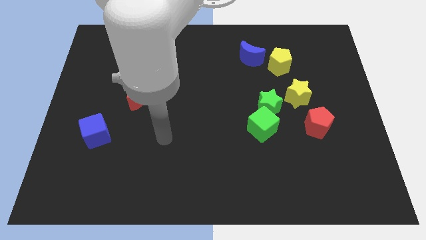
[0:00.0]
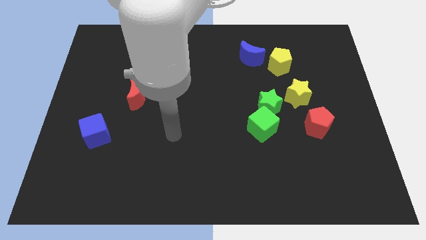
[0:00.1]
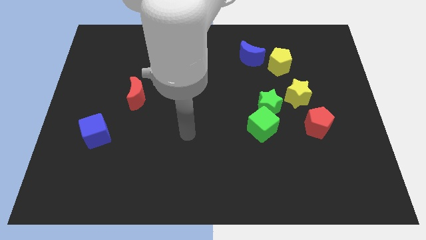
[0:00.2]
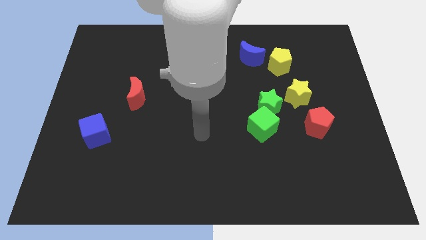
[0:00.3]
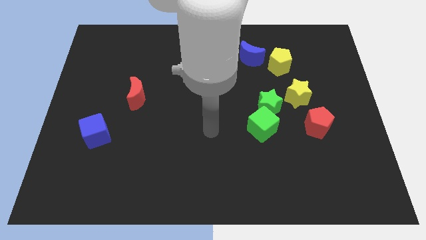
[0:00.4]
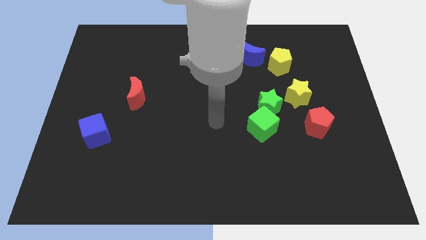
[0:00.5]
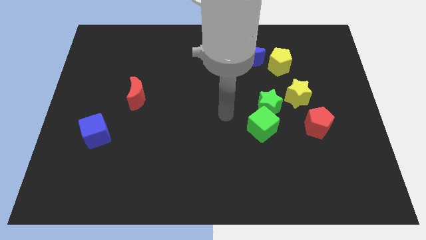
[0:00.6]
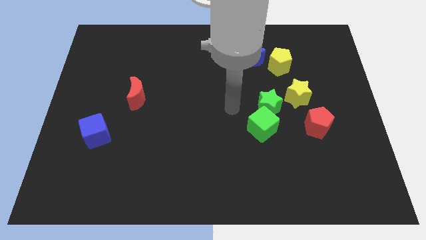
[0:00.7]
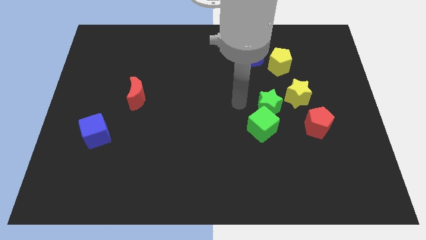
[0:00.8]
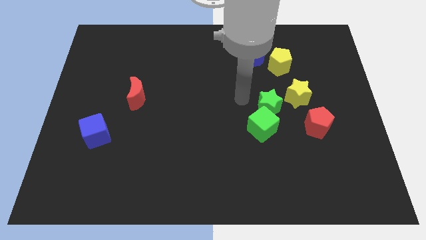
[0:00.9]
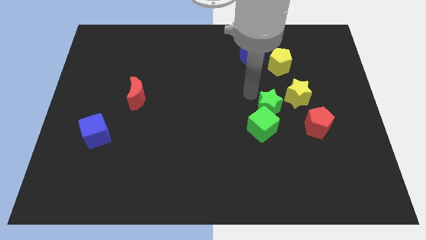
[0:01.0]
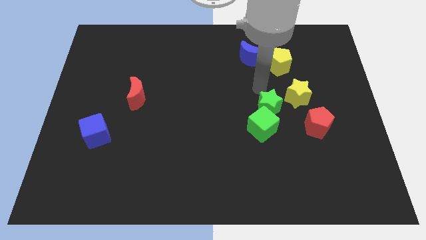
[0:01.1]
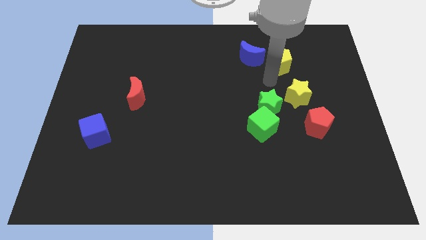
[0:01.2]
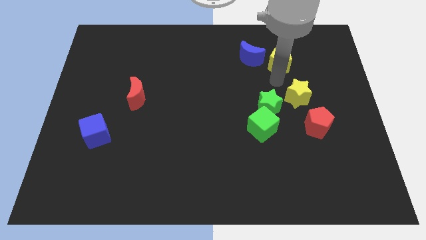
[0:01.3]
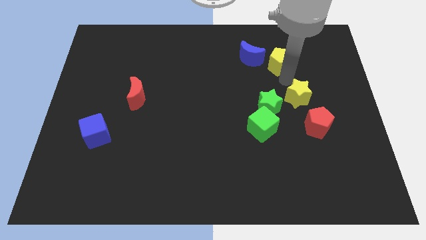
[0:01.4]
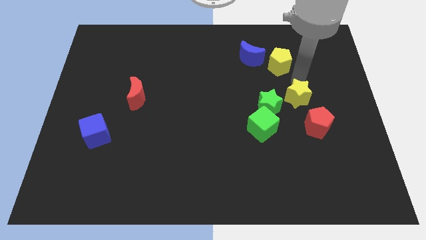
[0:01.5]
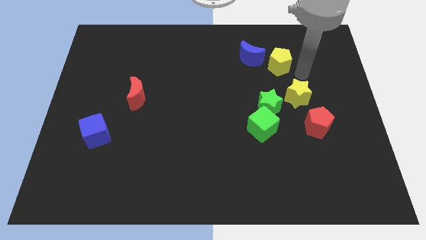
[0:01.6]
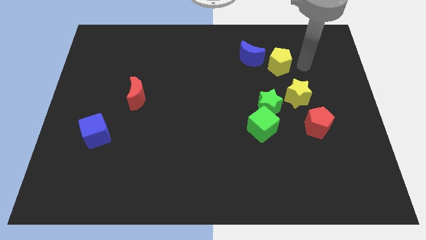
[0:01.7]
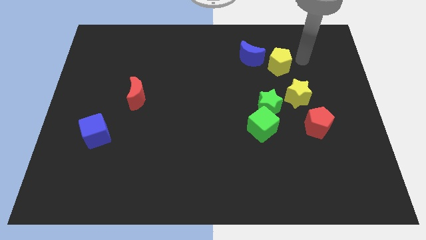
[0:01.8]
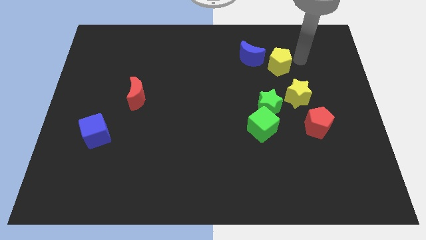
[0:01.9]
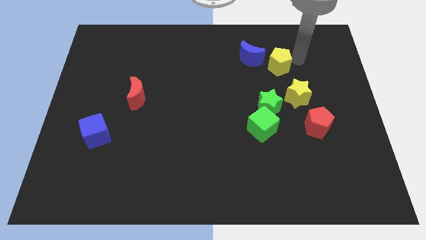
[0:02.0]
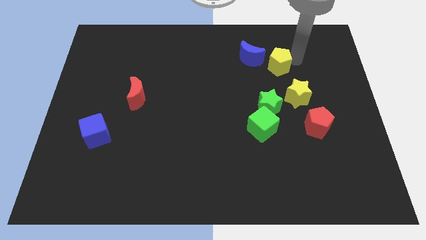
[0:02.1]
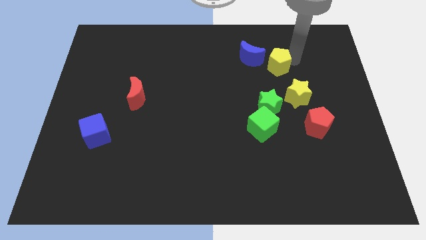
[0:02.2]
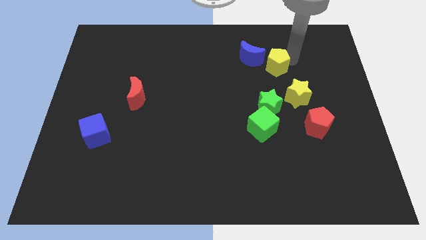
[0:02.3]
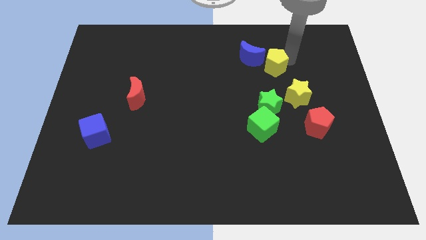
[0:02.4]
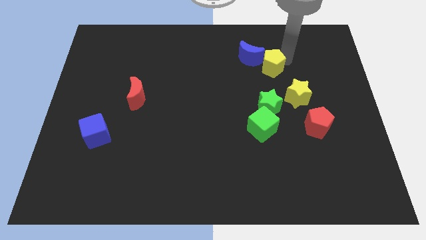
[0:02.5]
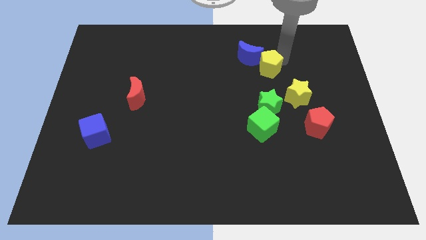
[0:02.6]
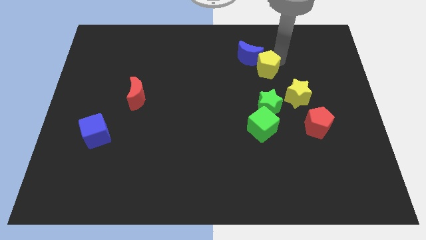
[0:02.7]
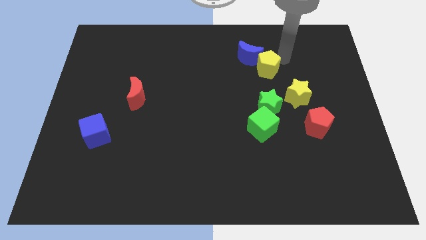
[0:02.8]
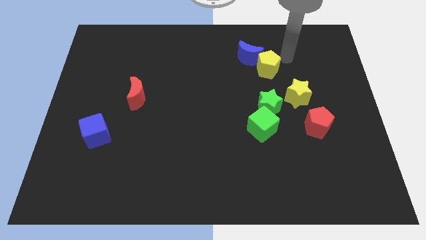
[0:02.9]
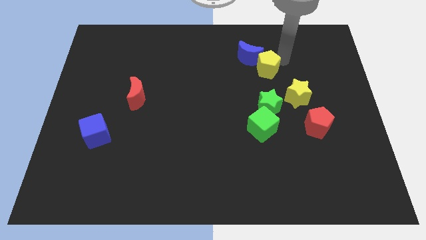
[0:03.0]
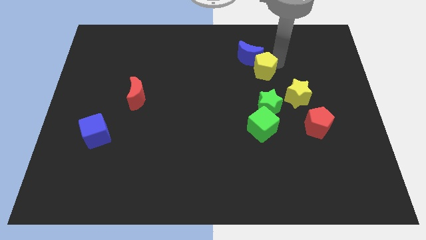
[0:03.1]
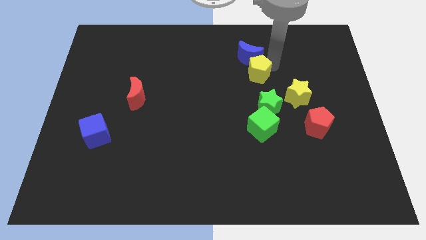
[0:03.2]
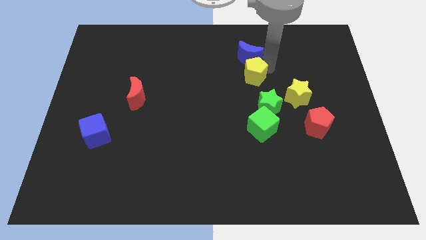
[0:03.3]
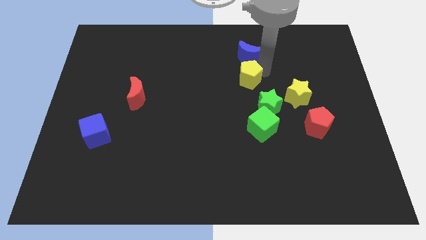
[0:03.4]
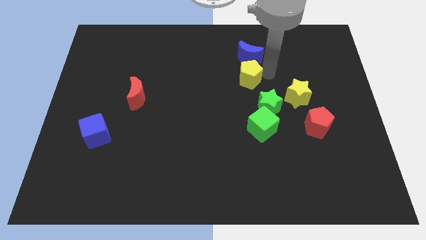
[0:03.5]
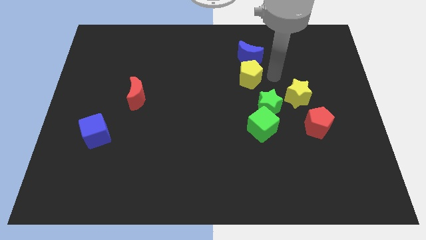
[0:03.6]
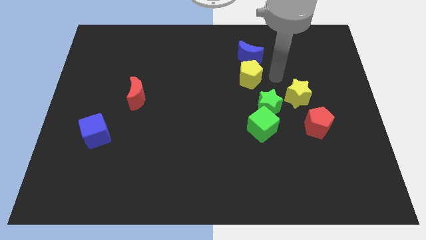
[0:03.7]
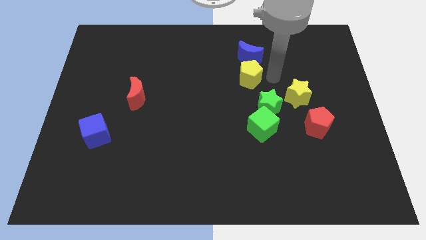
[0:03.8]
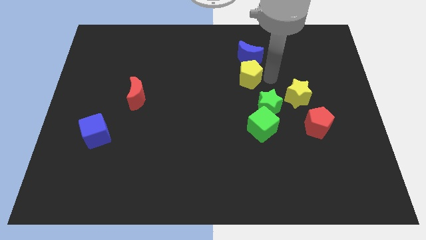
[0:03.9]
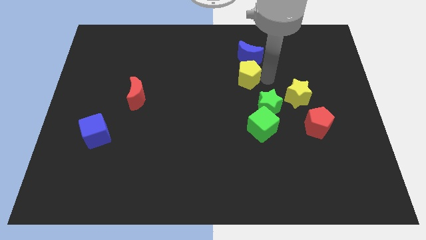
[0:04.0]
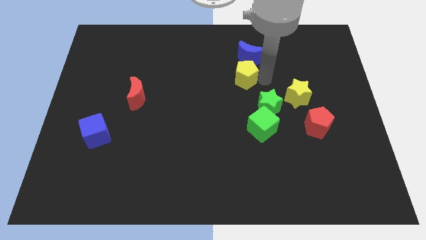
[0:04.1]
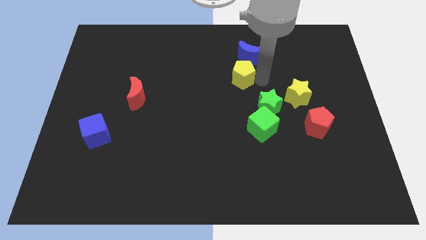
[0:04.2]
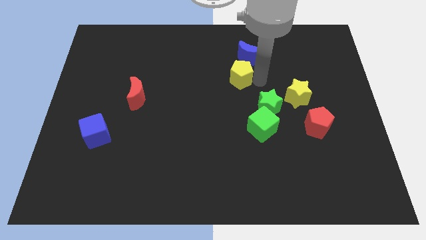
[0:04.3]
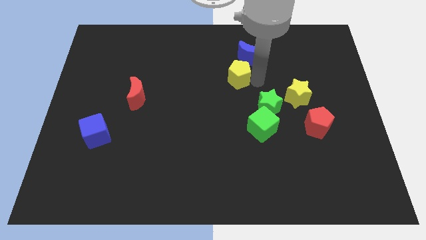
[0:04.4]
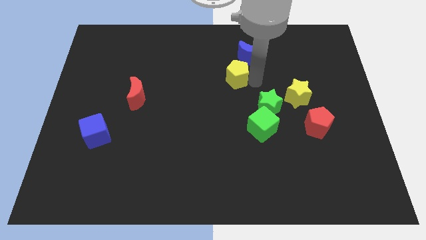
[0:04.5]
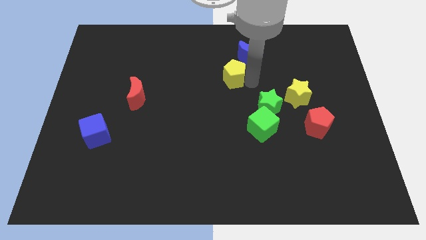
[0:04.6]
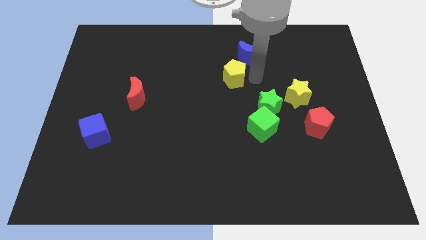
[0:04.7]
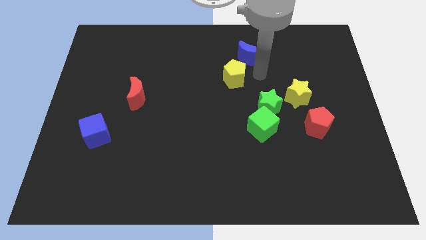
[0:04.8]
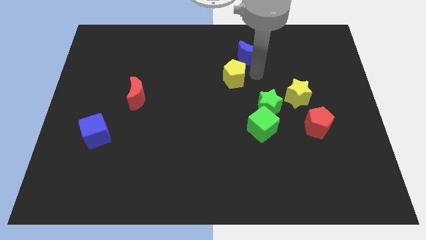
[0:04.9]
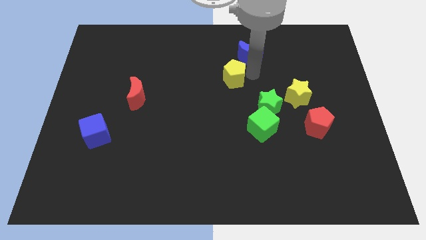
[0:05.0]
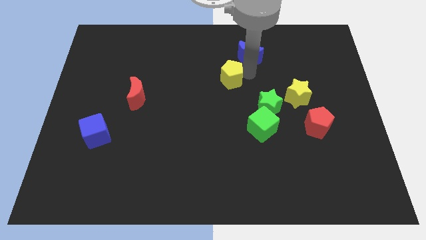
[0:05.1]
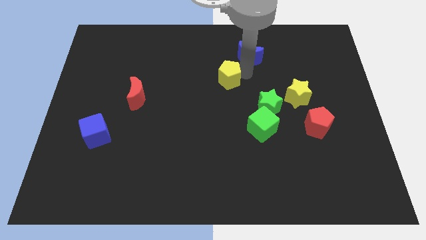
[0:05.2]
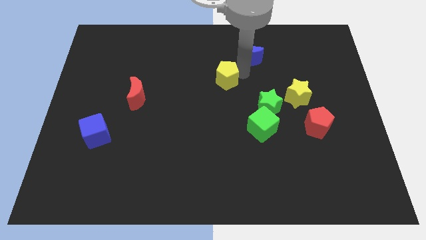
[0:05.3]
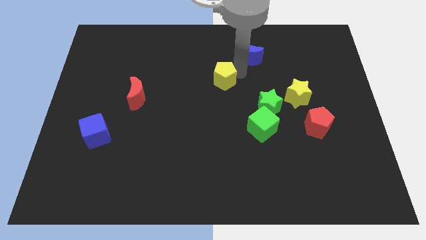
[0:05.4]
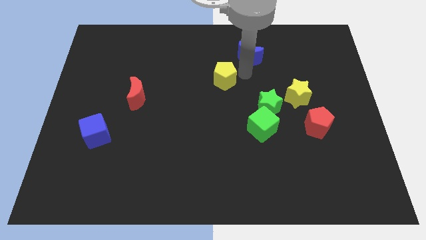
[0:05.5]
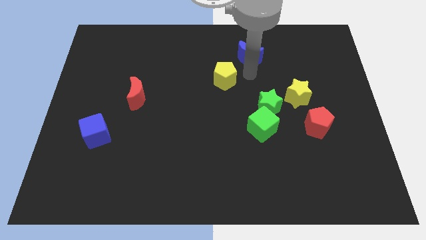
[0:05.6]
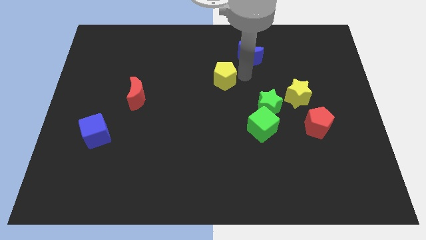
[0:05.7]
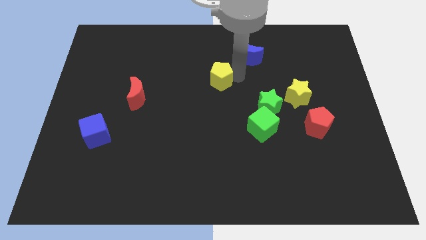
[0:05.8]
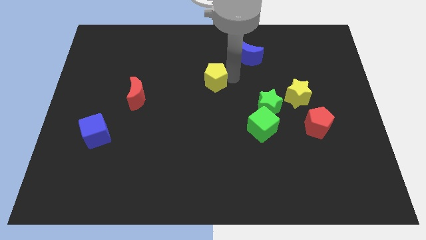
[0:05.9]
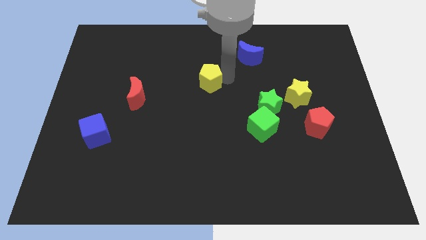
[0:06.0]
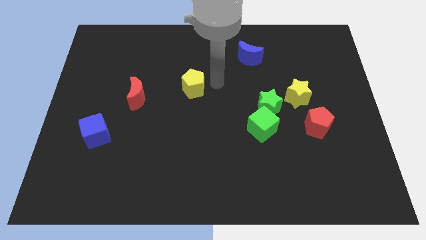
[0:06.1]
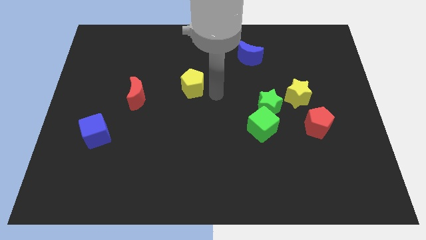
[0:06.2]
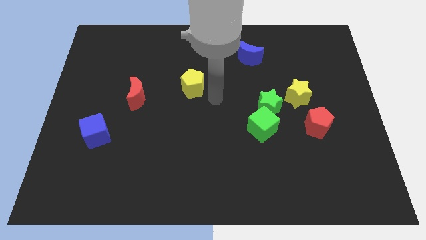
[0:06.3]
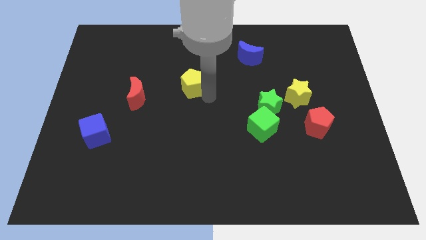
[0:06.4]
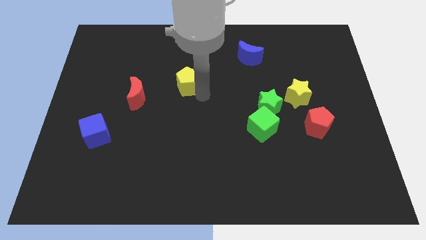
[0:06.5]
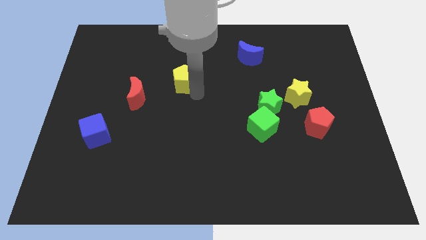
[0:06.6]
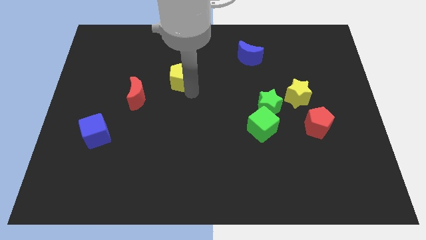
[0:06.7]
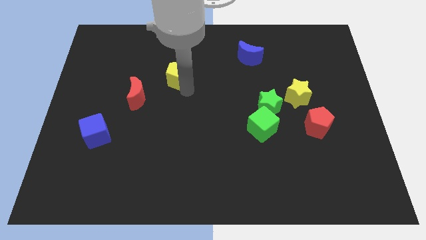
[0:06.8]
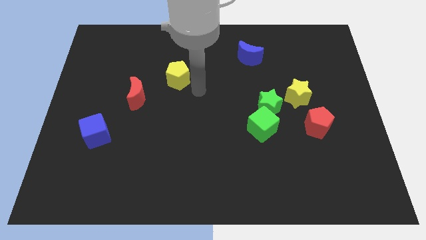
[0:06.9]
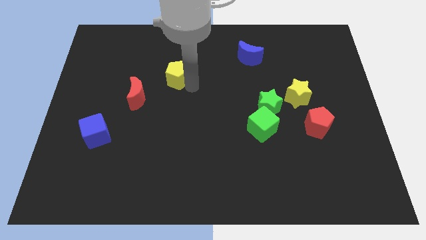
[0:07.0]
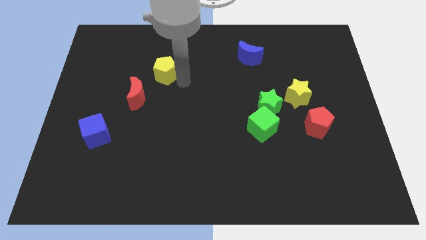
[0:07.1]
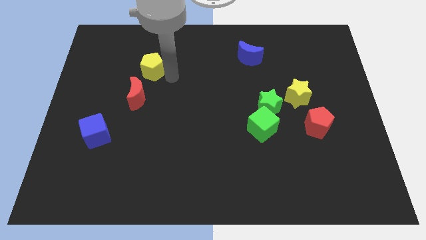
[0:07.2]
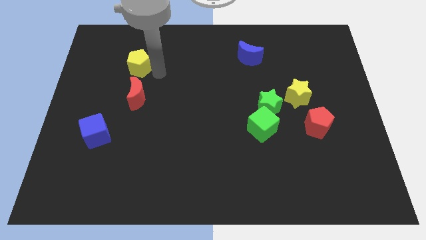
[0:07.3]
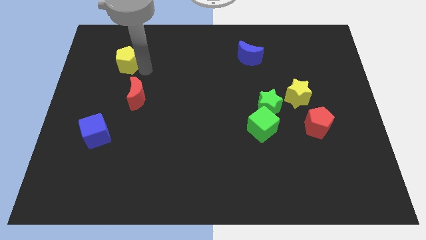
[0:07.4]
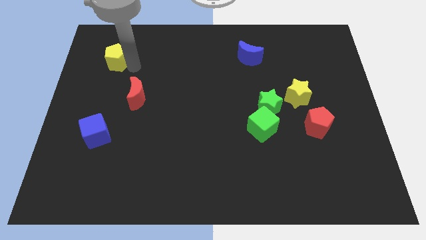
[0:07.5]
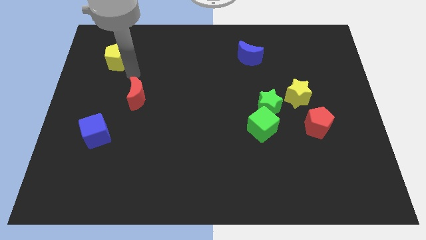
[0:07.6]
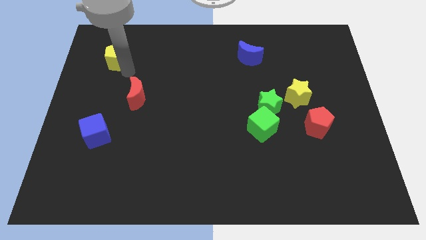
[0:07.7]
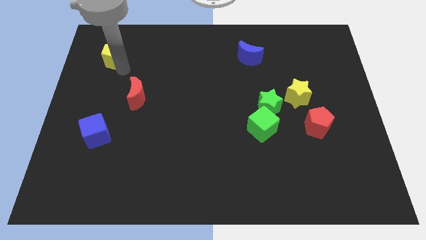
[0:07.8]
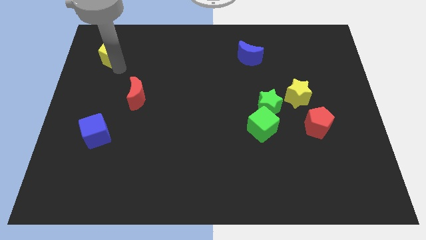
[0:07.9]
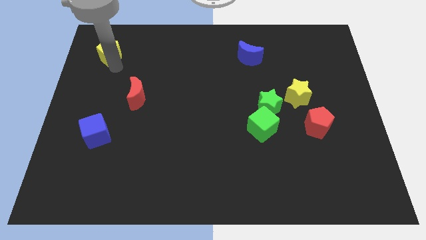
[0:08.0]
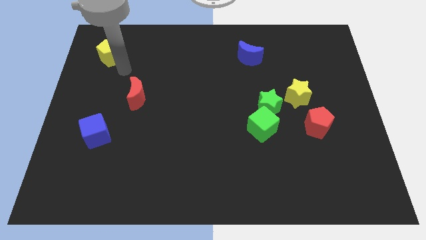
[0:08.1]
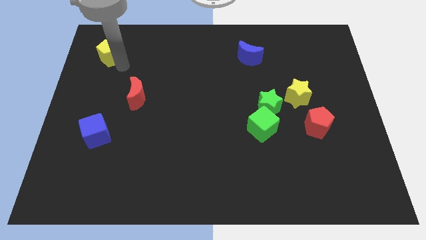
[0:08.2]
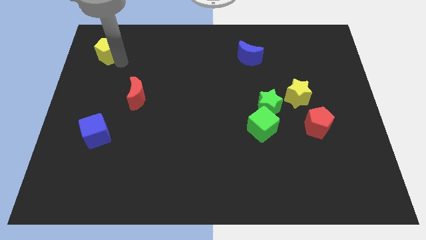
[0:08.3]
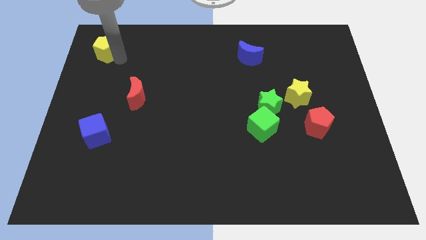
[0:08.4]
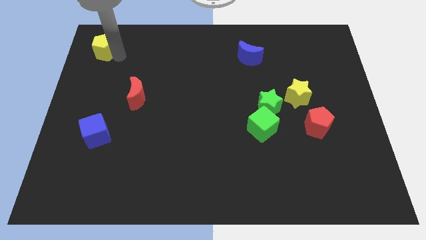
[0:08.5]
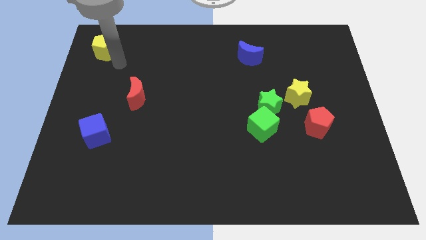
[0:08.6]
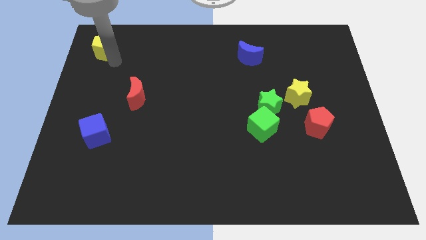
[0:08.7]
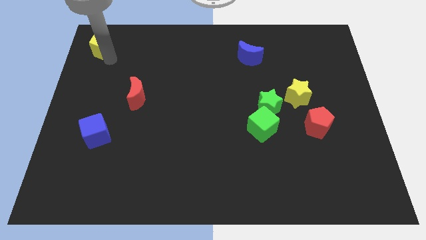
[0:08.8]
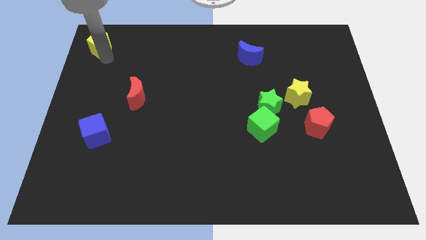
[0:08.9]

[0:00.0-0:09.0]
move the yellow pentagon to the upper left corner
